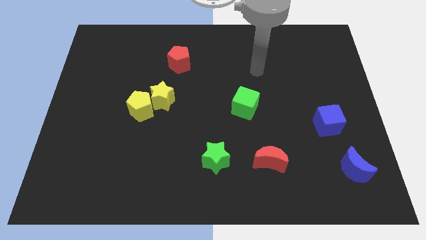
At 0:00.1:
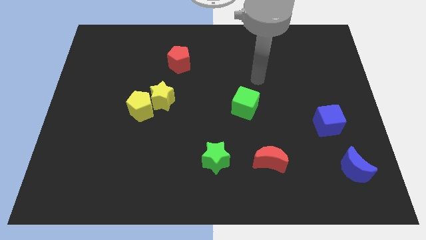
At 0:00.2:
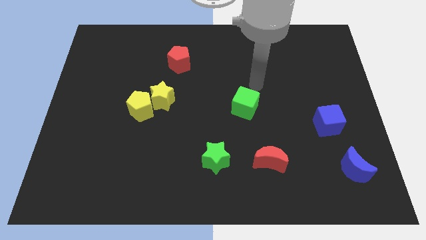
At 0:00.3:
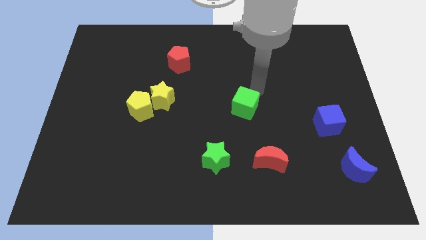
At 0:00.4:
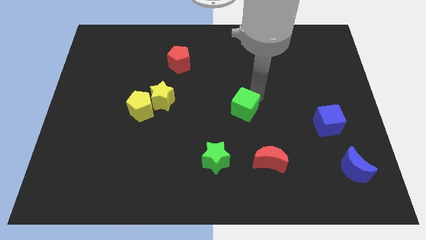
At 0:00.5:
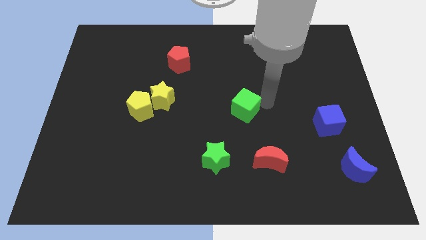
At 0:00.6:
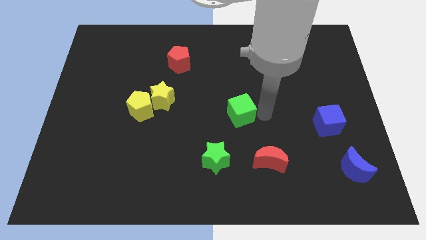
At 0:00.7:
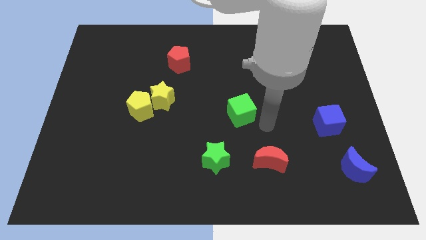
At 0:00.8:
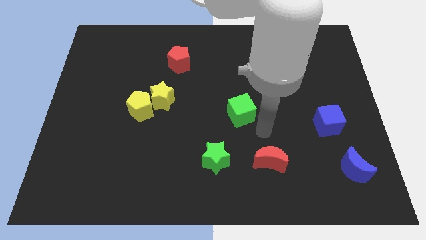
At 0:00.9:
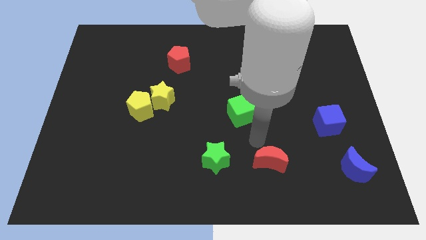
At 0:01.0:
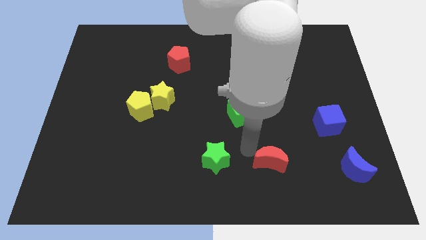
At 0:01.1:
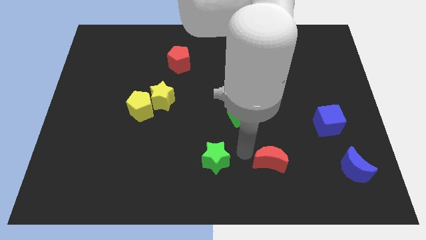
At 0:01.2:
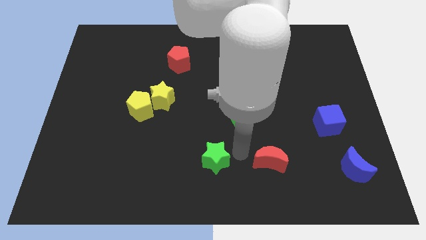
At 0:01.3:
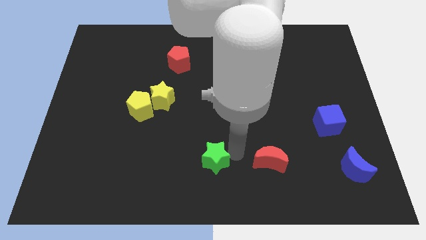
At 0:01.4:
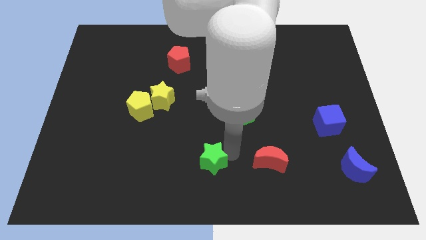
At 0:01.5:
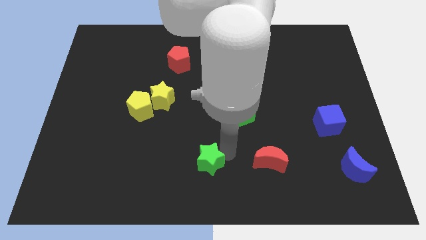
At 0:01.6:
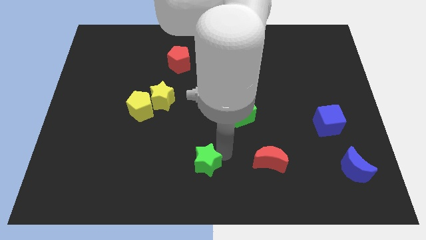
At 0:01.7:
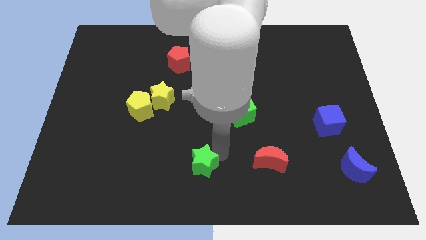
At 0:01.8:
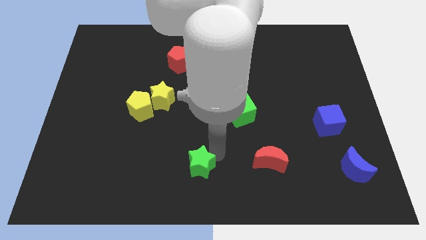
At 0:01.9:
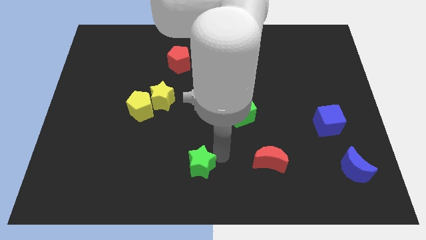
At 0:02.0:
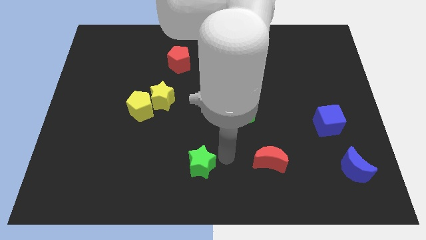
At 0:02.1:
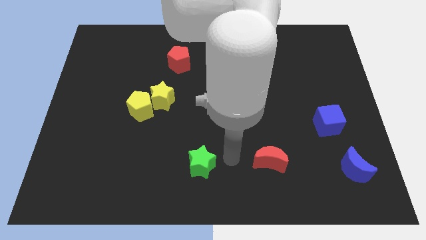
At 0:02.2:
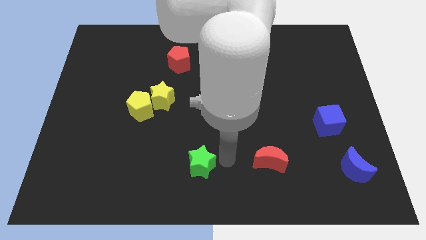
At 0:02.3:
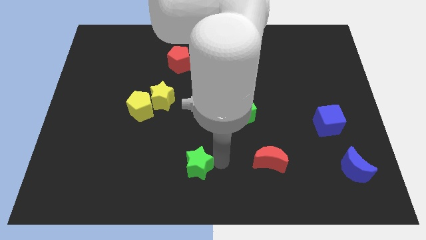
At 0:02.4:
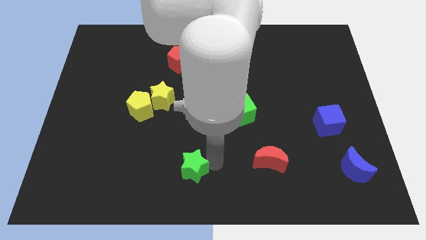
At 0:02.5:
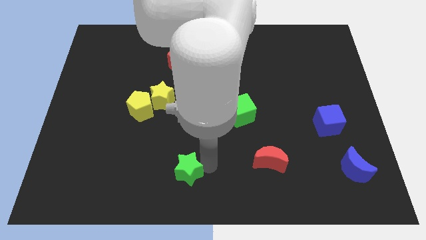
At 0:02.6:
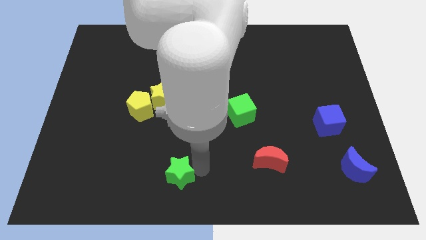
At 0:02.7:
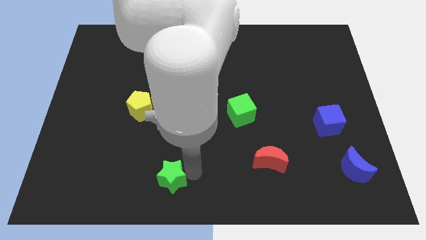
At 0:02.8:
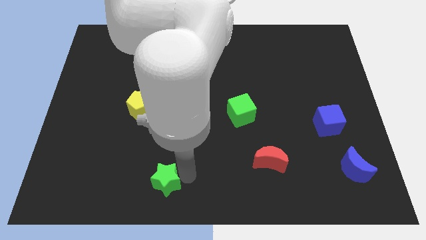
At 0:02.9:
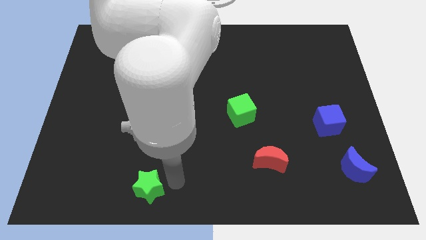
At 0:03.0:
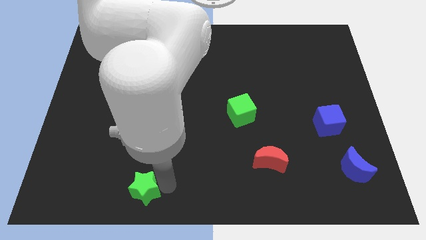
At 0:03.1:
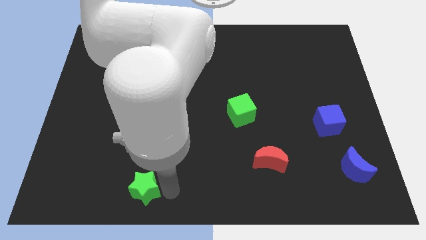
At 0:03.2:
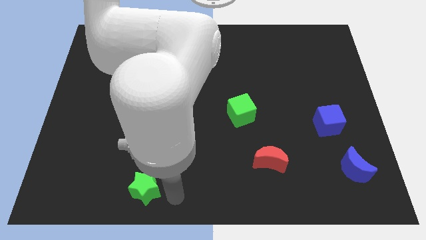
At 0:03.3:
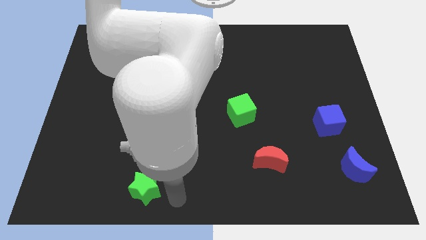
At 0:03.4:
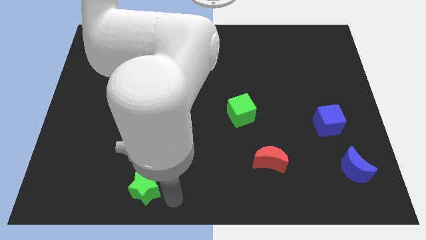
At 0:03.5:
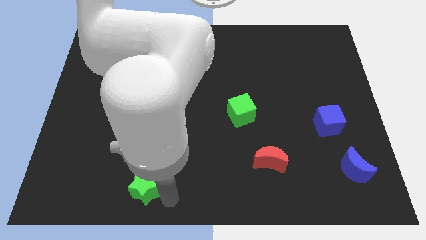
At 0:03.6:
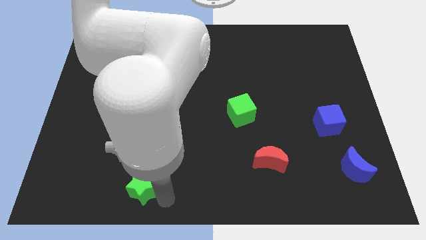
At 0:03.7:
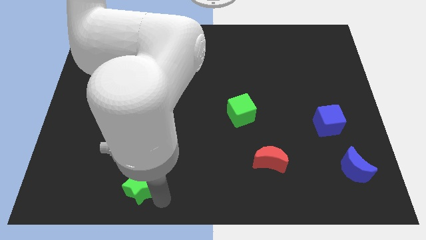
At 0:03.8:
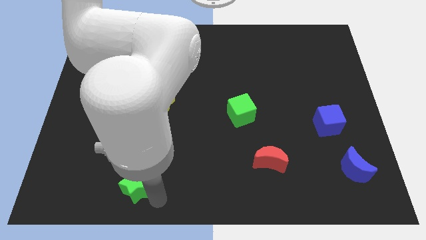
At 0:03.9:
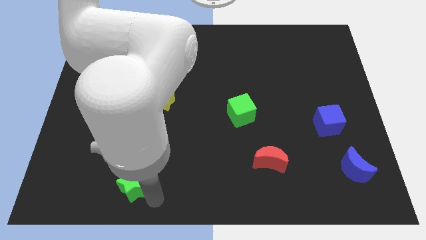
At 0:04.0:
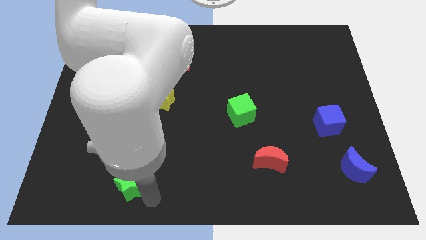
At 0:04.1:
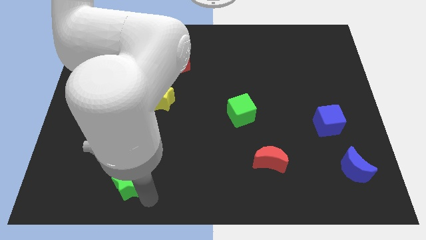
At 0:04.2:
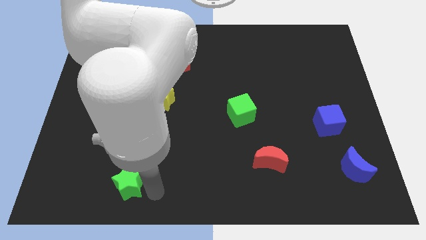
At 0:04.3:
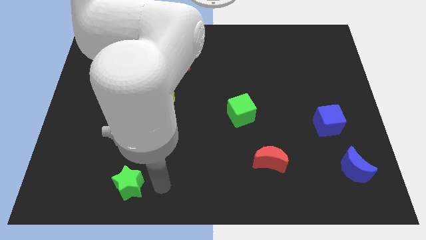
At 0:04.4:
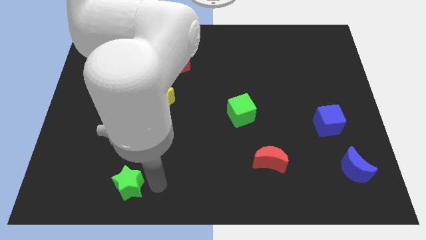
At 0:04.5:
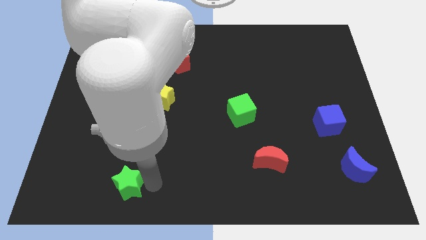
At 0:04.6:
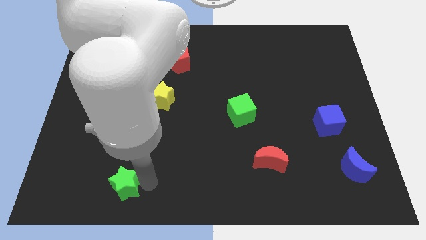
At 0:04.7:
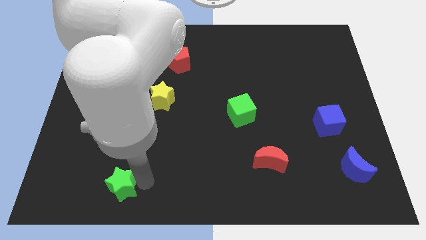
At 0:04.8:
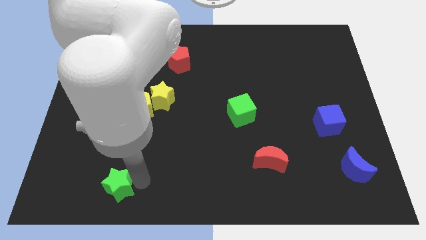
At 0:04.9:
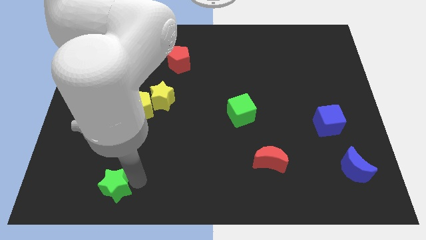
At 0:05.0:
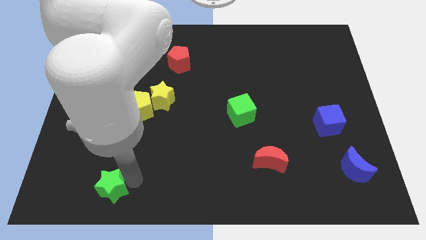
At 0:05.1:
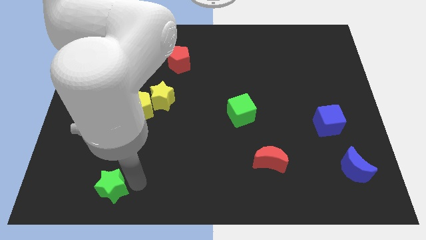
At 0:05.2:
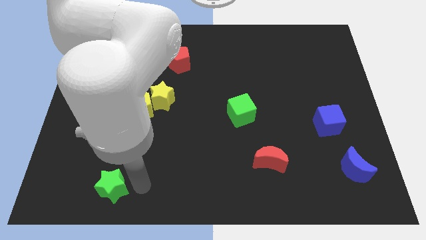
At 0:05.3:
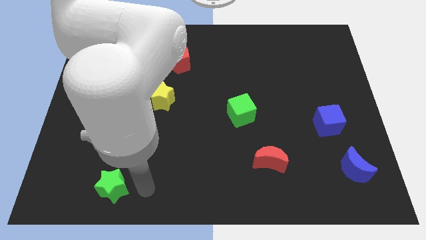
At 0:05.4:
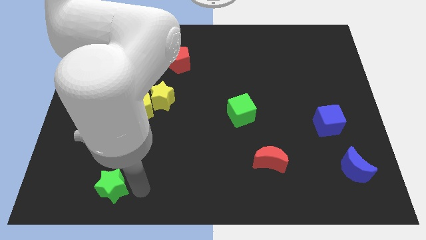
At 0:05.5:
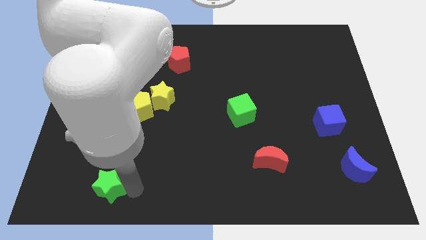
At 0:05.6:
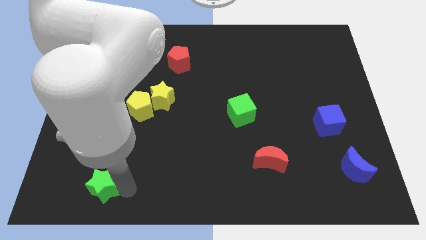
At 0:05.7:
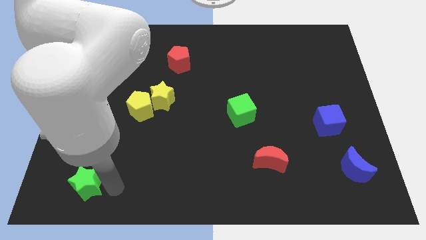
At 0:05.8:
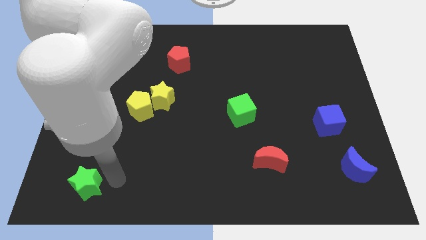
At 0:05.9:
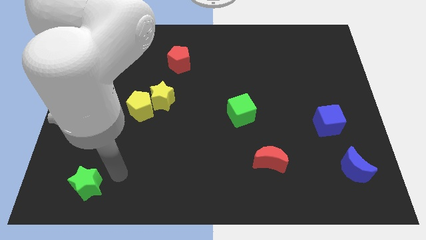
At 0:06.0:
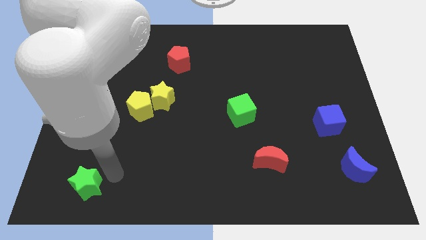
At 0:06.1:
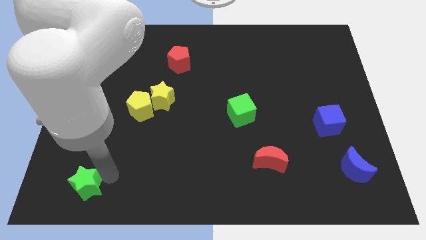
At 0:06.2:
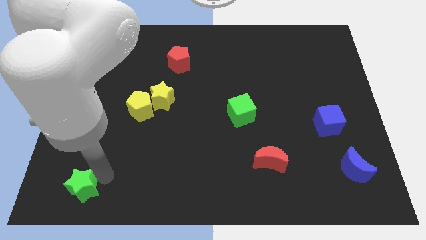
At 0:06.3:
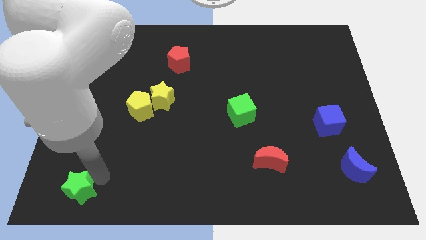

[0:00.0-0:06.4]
move the green star to the bottom left of the board
